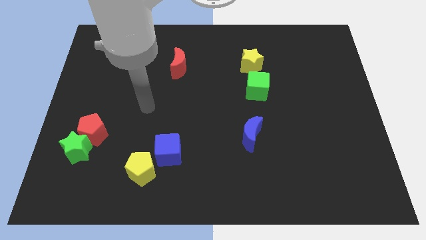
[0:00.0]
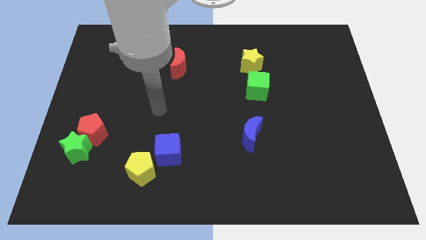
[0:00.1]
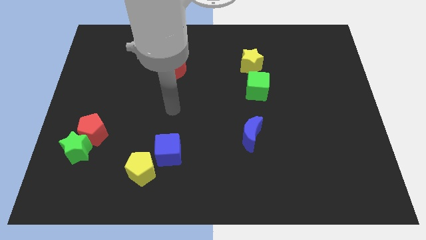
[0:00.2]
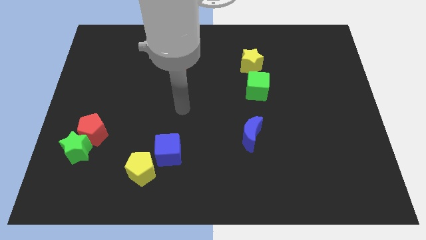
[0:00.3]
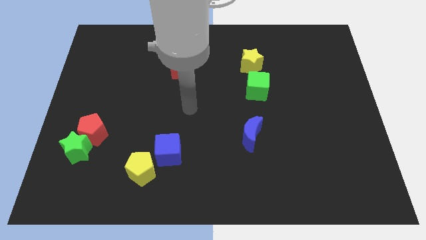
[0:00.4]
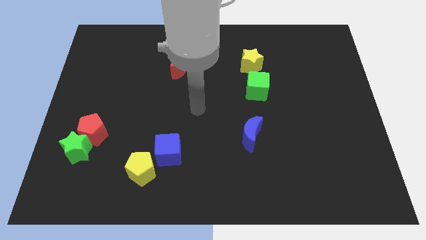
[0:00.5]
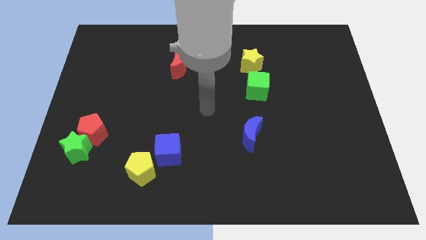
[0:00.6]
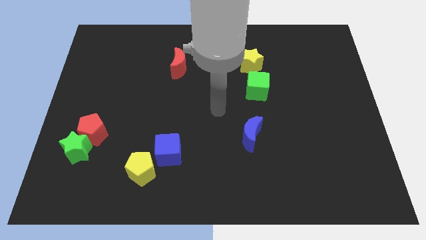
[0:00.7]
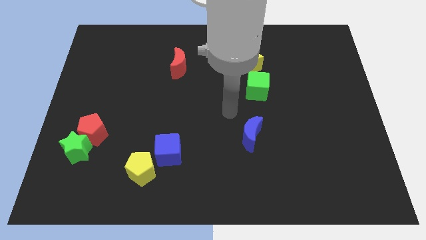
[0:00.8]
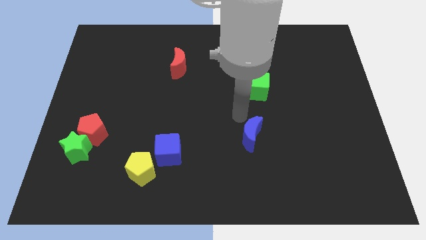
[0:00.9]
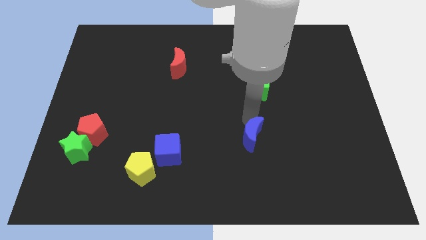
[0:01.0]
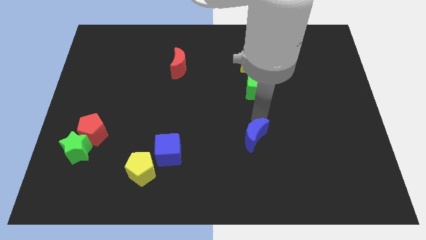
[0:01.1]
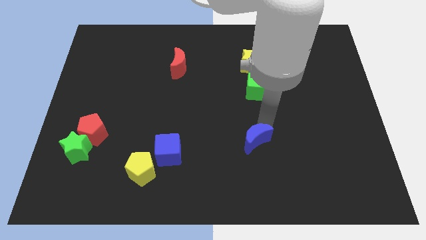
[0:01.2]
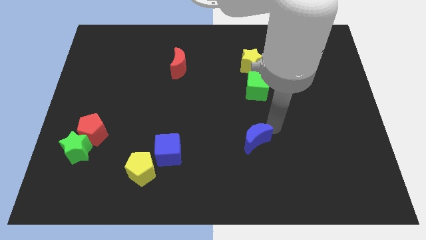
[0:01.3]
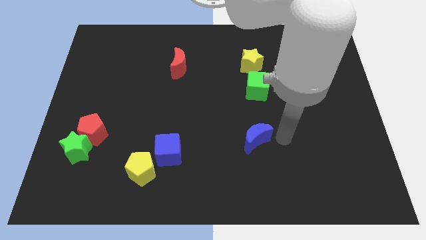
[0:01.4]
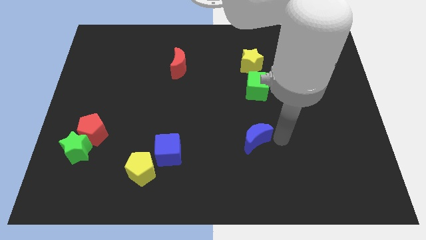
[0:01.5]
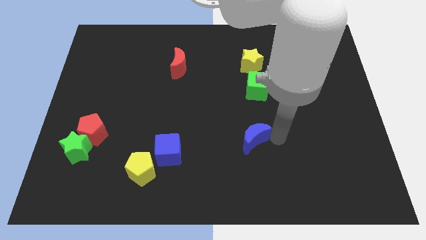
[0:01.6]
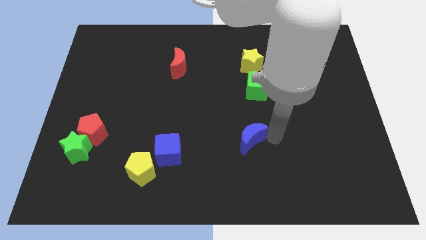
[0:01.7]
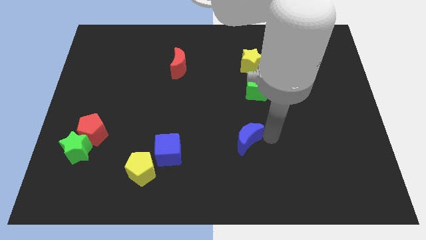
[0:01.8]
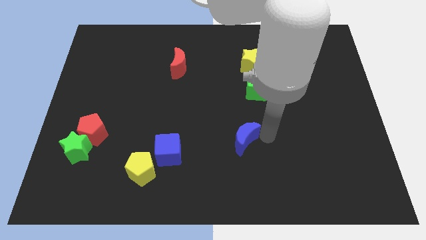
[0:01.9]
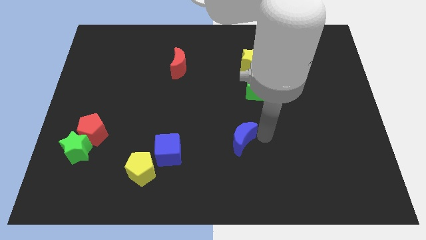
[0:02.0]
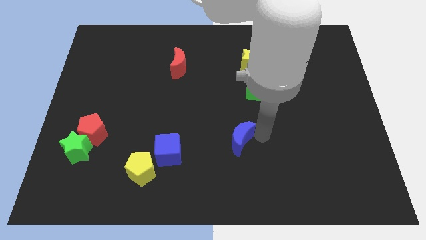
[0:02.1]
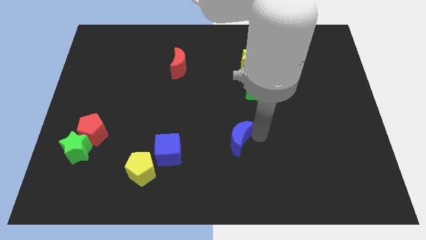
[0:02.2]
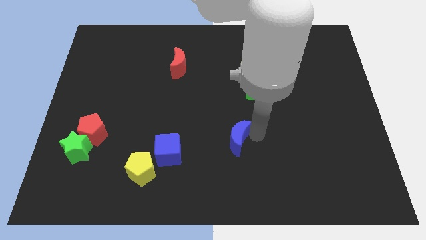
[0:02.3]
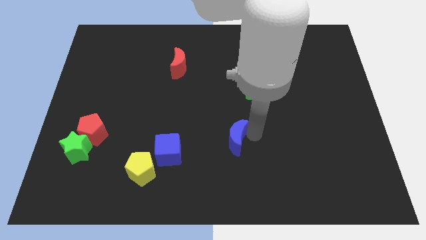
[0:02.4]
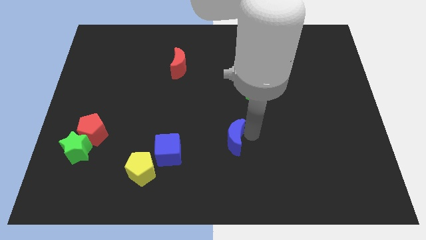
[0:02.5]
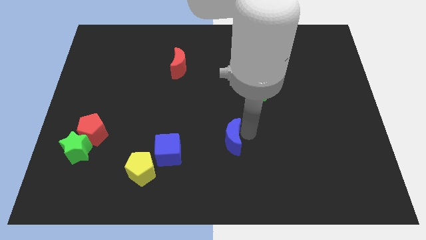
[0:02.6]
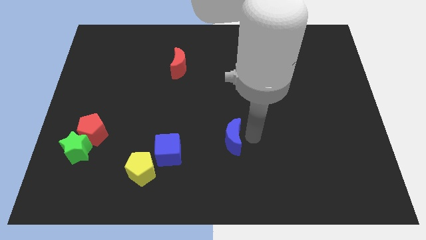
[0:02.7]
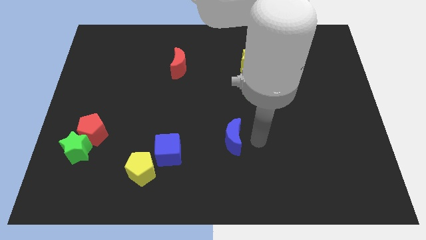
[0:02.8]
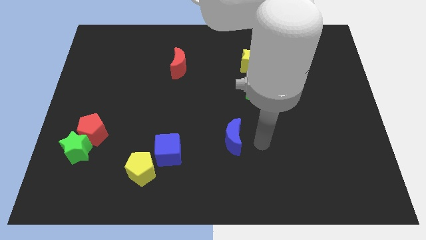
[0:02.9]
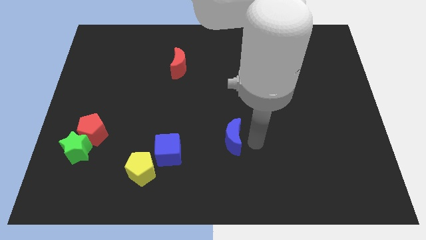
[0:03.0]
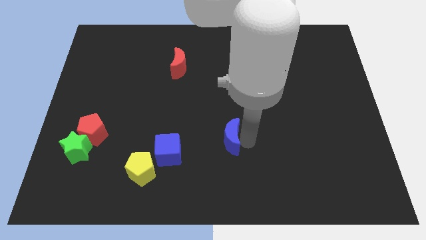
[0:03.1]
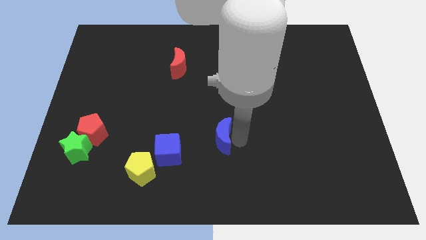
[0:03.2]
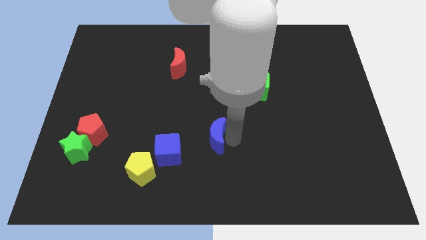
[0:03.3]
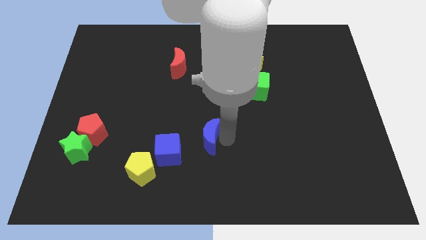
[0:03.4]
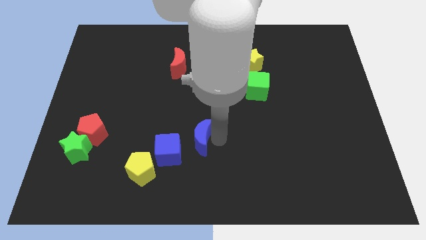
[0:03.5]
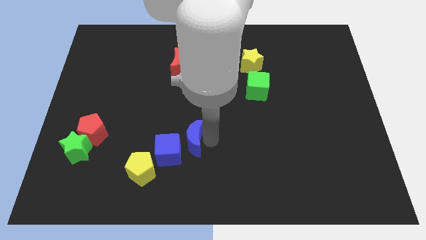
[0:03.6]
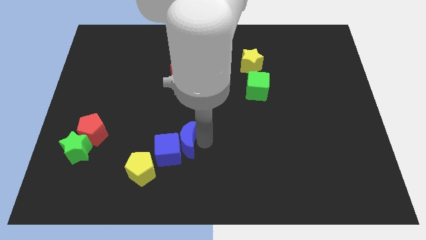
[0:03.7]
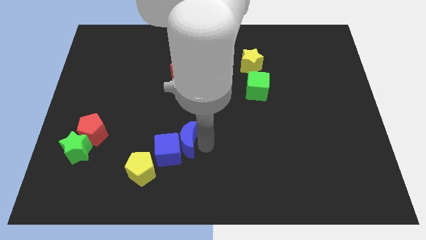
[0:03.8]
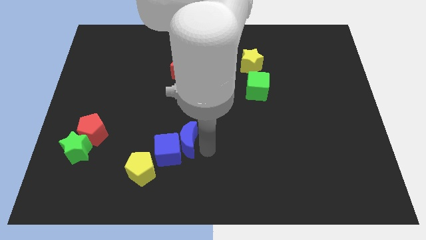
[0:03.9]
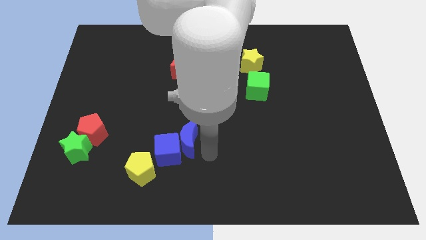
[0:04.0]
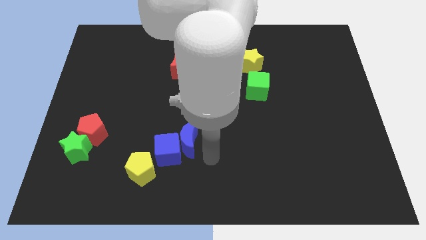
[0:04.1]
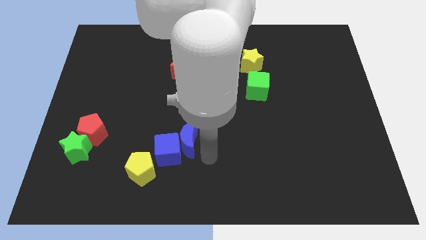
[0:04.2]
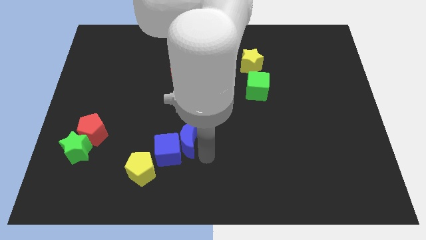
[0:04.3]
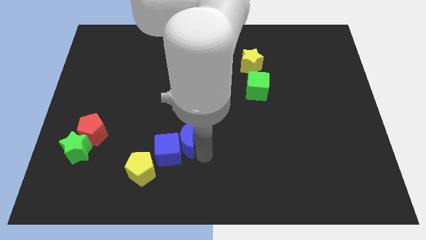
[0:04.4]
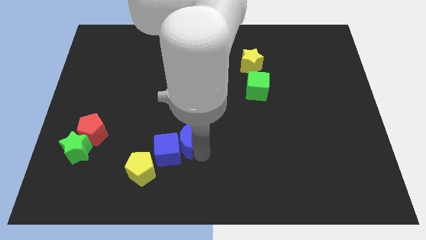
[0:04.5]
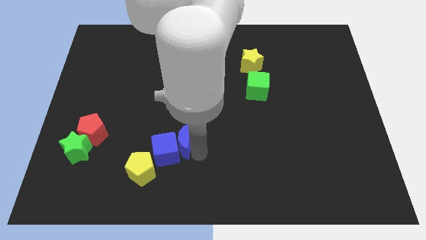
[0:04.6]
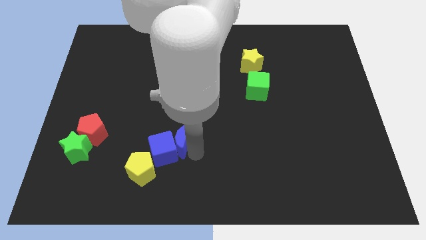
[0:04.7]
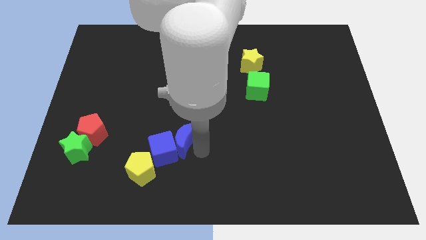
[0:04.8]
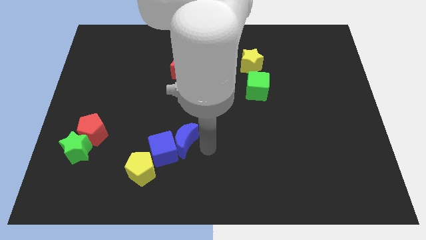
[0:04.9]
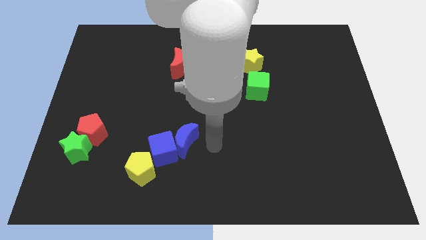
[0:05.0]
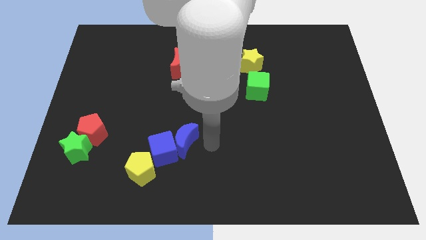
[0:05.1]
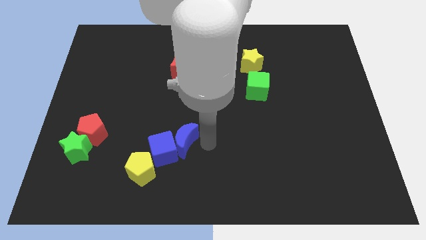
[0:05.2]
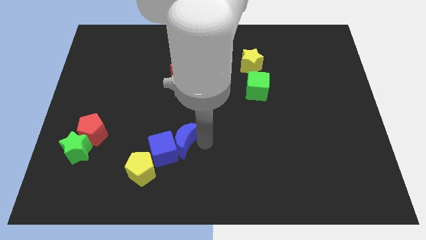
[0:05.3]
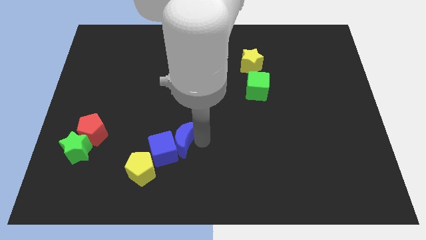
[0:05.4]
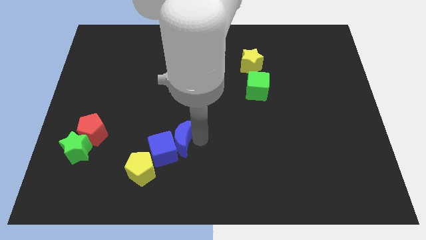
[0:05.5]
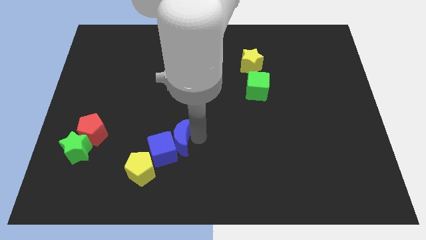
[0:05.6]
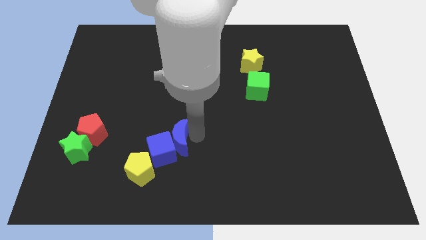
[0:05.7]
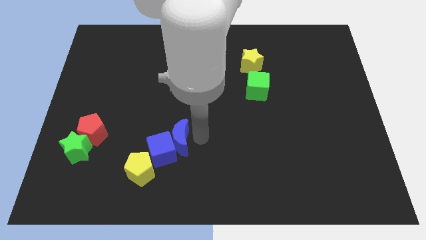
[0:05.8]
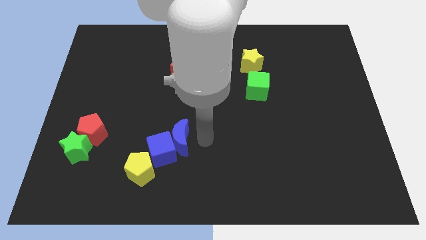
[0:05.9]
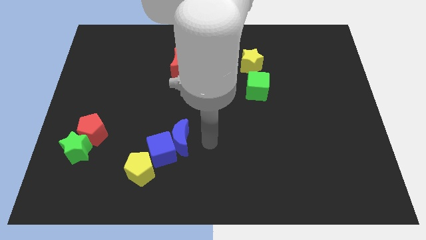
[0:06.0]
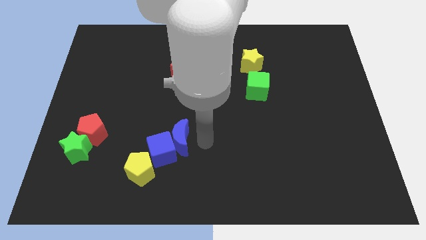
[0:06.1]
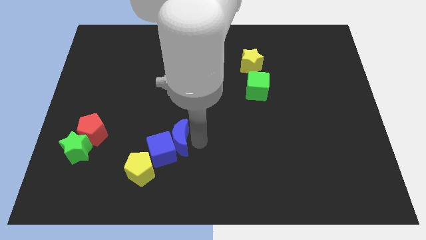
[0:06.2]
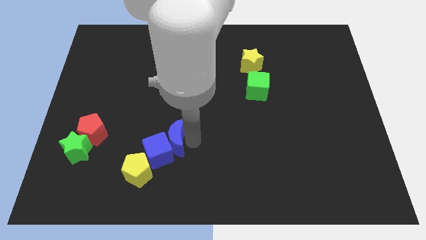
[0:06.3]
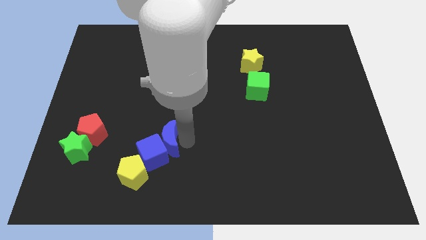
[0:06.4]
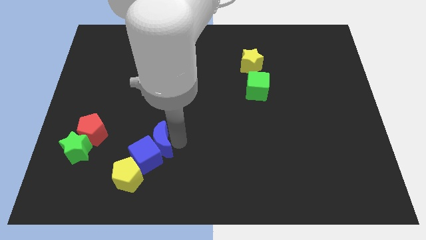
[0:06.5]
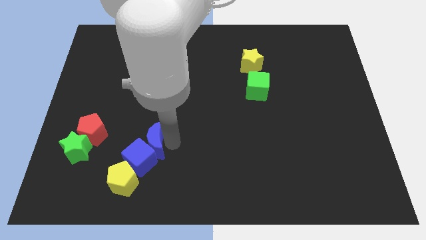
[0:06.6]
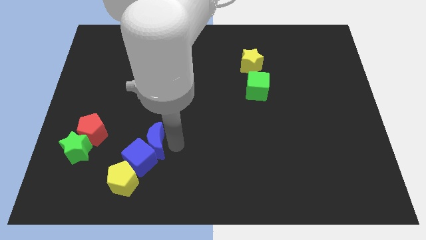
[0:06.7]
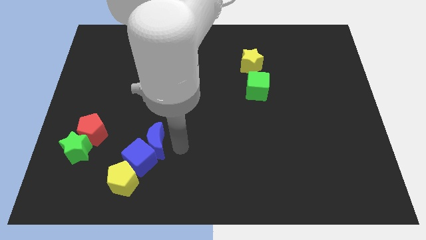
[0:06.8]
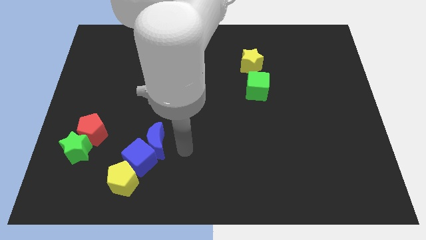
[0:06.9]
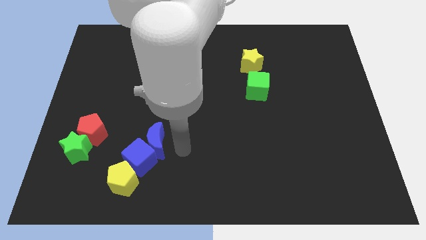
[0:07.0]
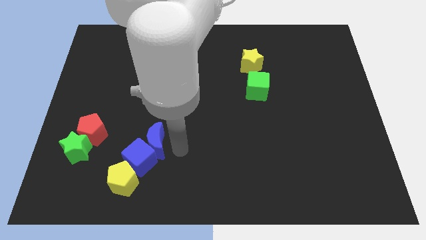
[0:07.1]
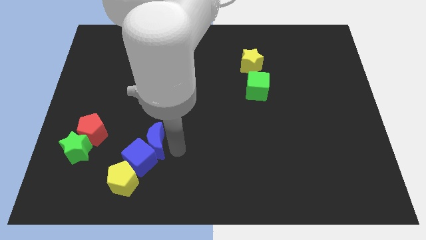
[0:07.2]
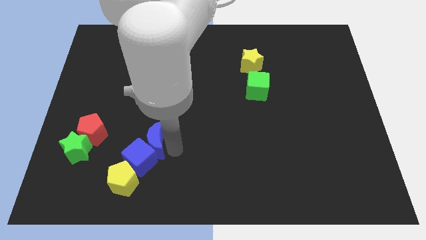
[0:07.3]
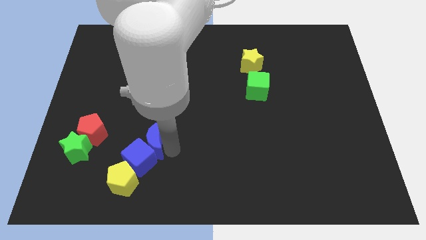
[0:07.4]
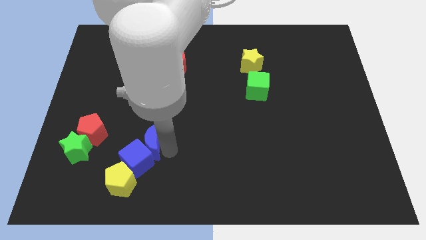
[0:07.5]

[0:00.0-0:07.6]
put the blue moon to the right side of the green star
